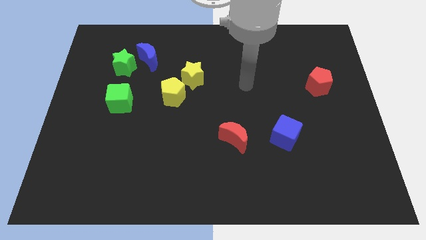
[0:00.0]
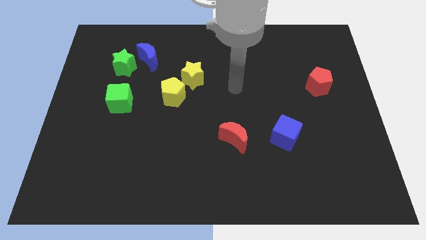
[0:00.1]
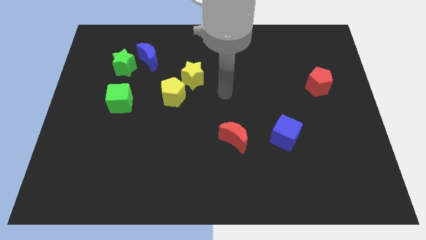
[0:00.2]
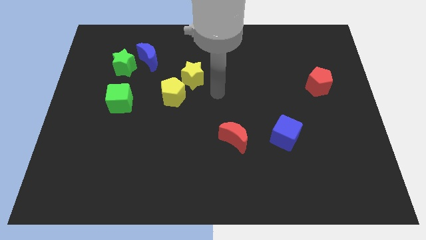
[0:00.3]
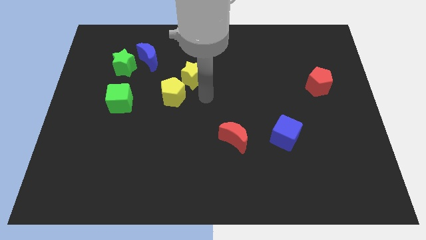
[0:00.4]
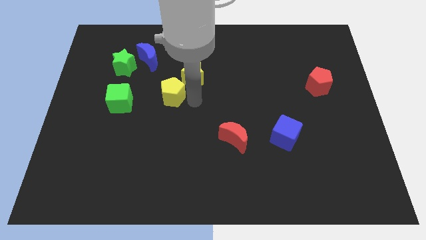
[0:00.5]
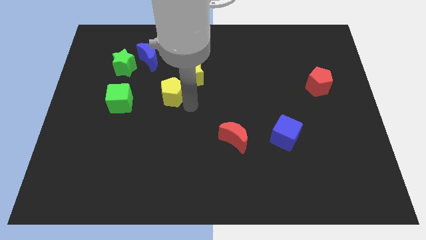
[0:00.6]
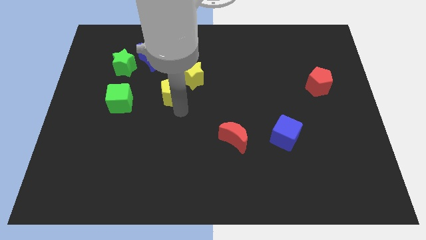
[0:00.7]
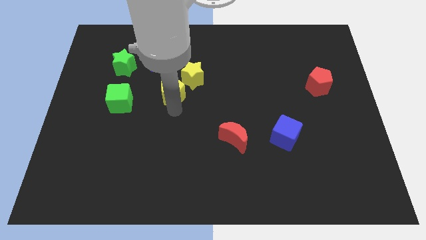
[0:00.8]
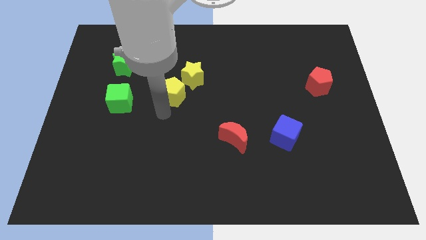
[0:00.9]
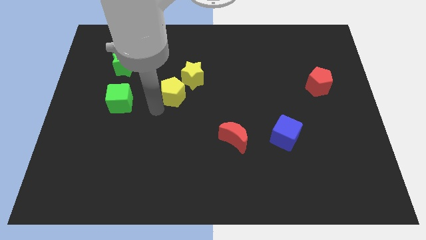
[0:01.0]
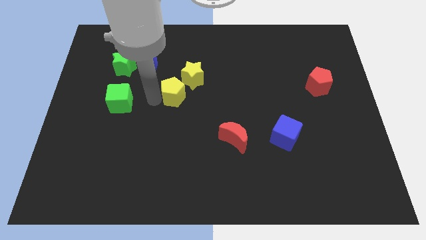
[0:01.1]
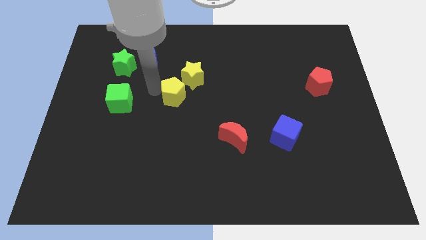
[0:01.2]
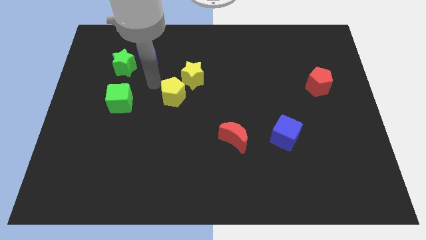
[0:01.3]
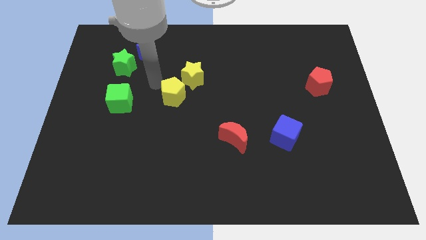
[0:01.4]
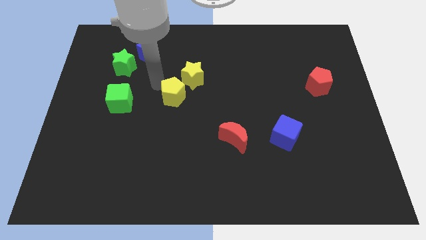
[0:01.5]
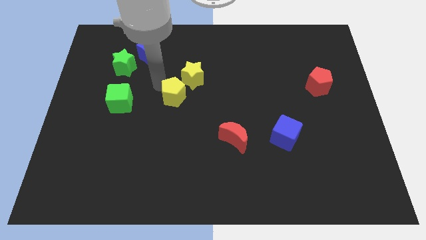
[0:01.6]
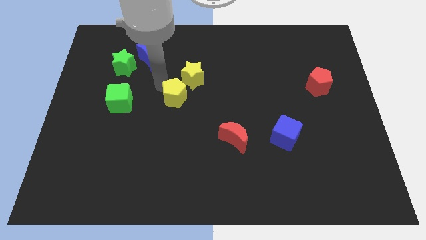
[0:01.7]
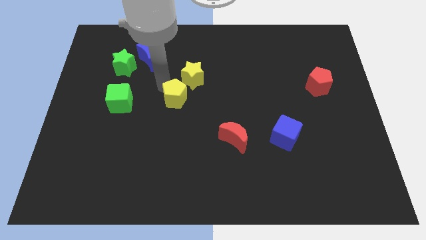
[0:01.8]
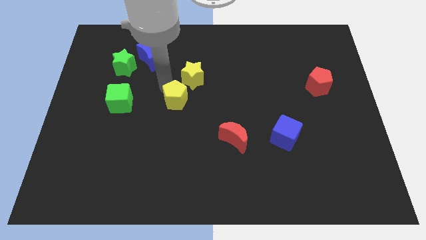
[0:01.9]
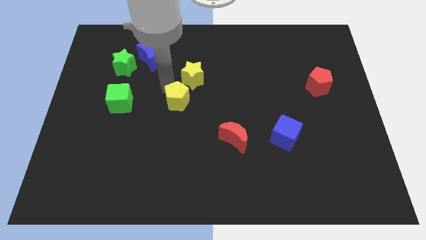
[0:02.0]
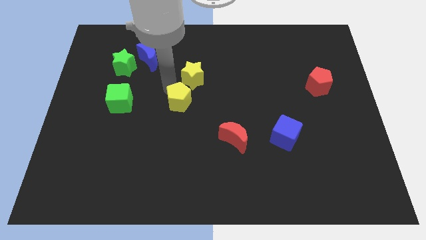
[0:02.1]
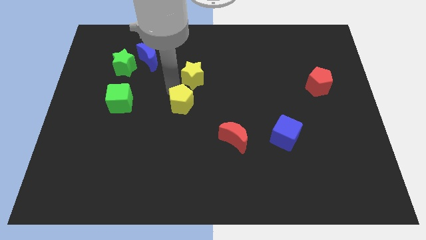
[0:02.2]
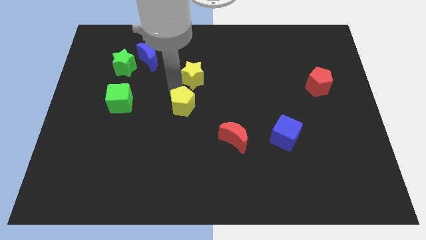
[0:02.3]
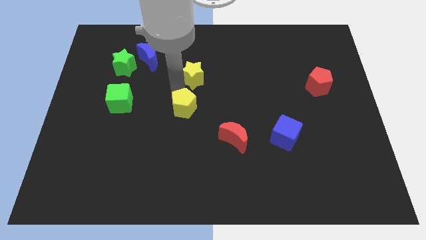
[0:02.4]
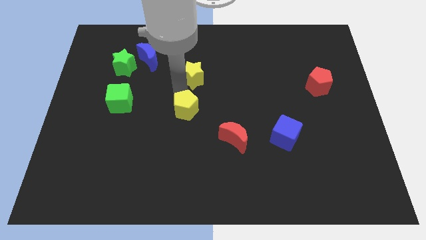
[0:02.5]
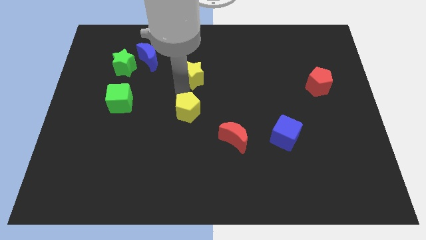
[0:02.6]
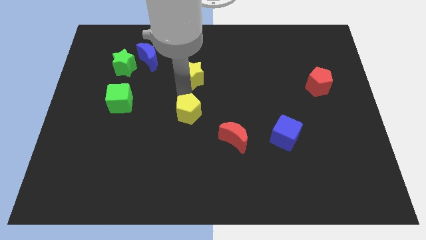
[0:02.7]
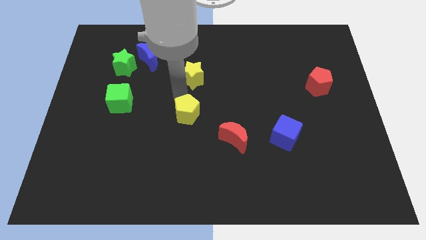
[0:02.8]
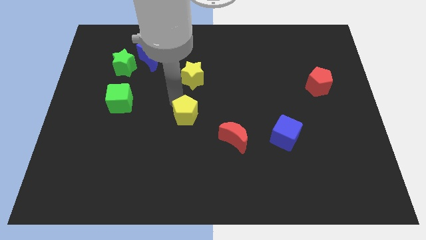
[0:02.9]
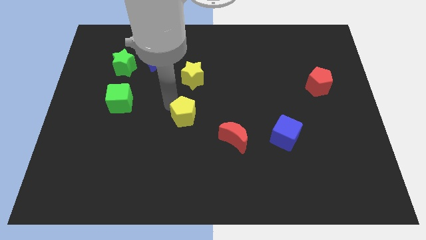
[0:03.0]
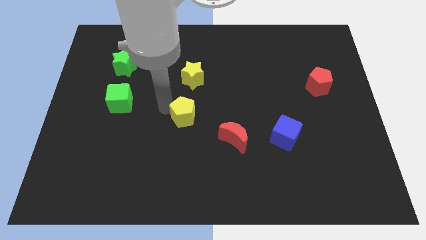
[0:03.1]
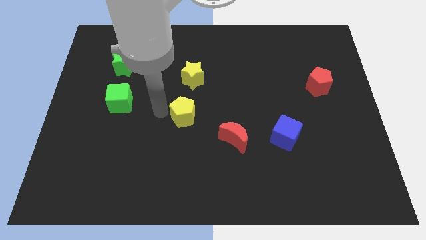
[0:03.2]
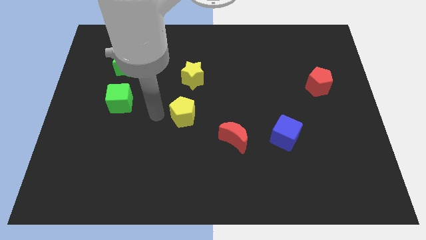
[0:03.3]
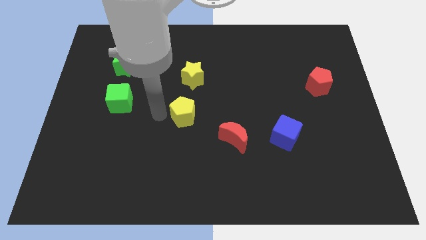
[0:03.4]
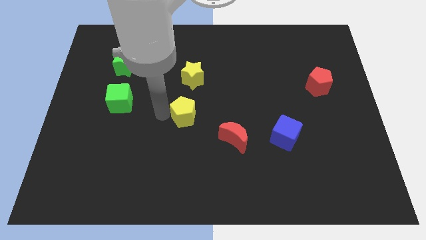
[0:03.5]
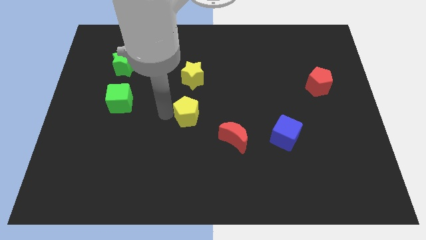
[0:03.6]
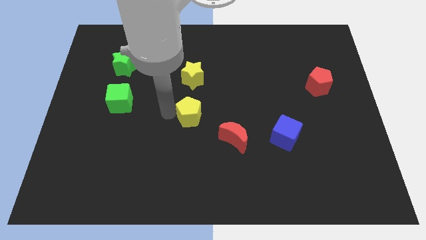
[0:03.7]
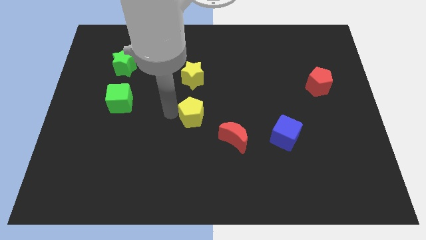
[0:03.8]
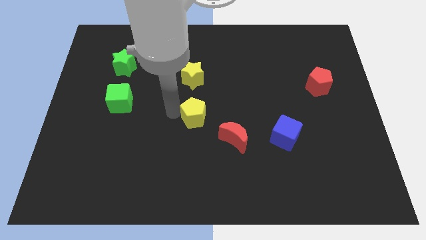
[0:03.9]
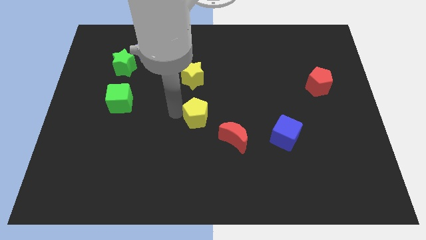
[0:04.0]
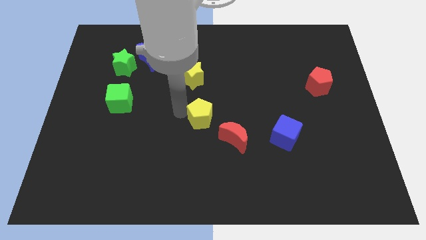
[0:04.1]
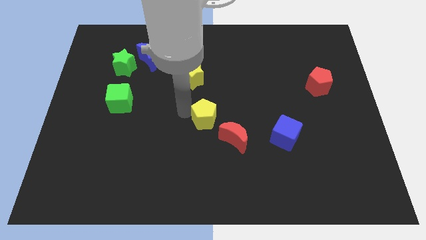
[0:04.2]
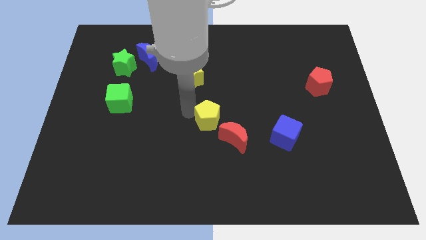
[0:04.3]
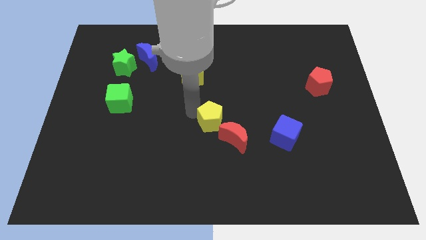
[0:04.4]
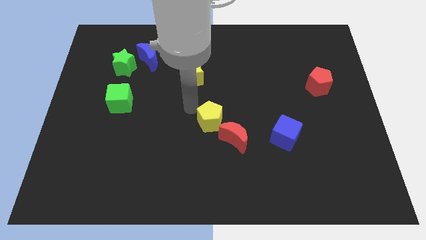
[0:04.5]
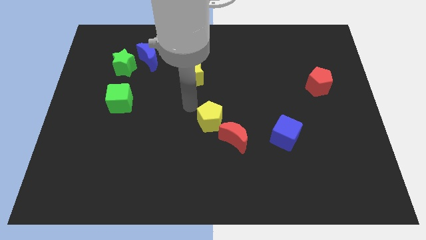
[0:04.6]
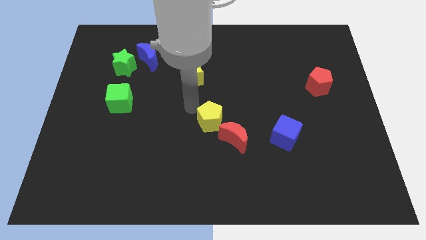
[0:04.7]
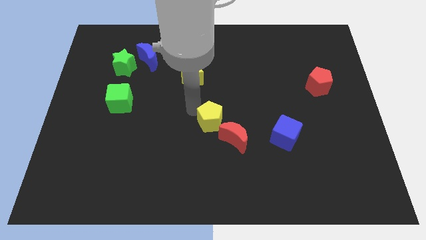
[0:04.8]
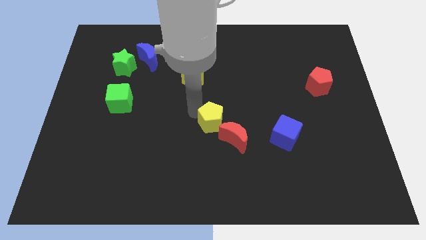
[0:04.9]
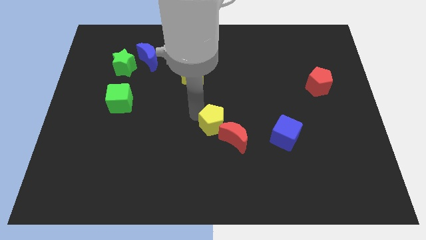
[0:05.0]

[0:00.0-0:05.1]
move the yellow pentagon close to the red moon

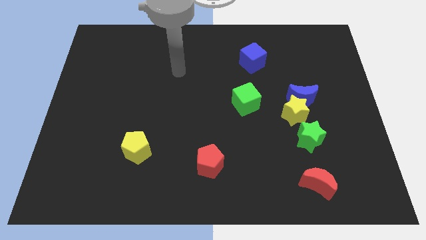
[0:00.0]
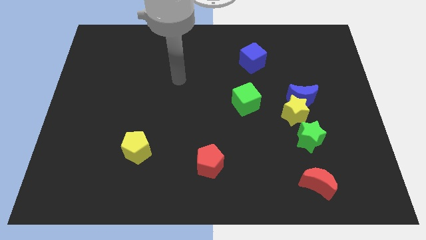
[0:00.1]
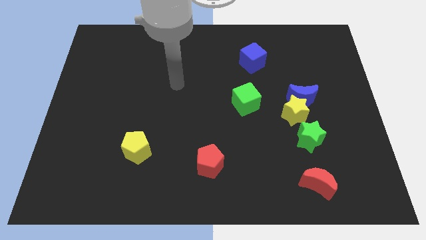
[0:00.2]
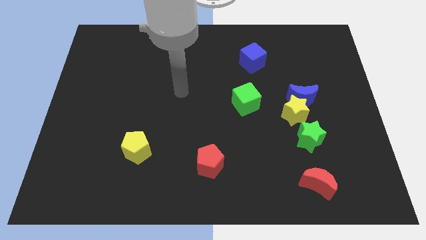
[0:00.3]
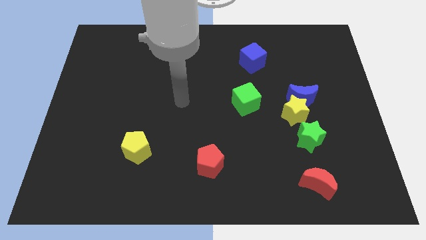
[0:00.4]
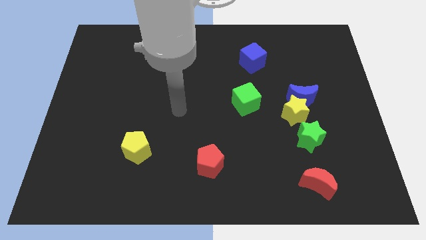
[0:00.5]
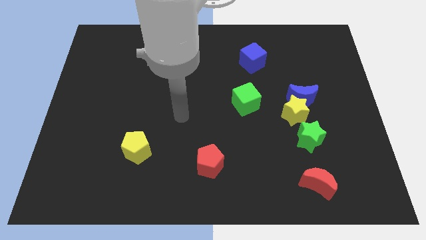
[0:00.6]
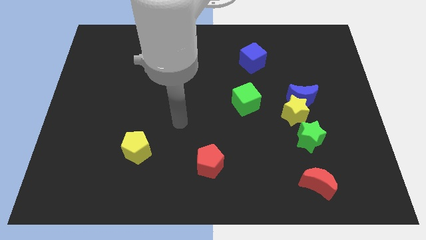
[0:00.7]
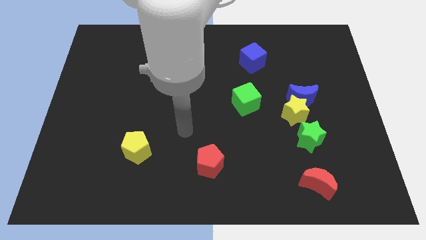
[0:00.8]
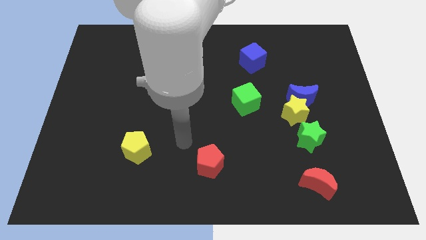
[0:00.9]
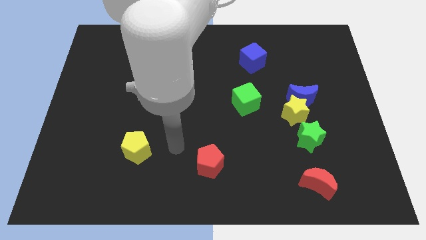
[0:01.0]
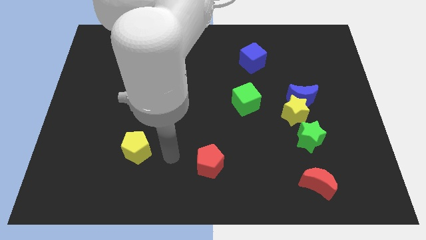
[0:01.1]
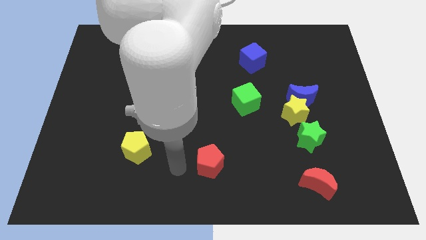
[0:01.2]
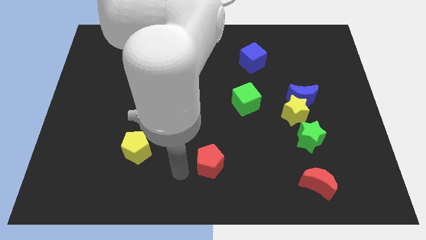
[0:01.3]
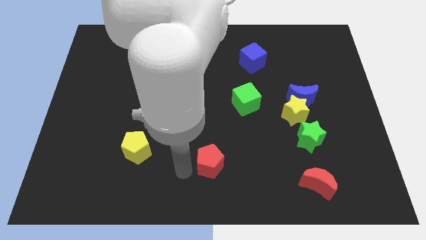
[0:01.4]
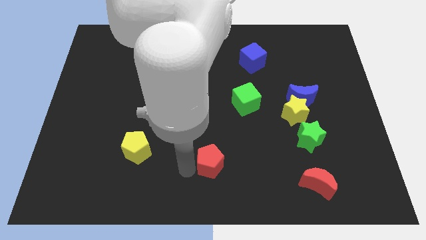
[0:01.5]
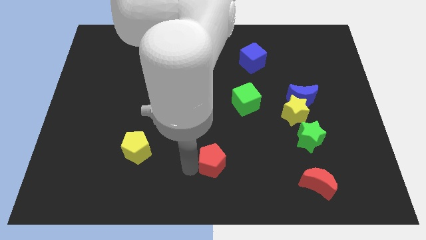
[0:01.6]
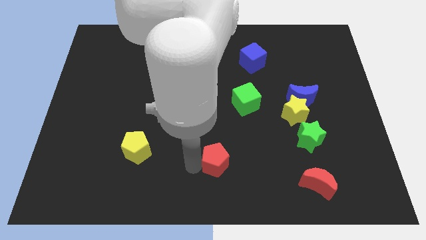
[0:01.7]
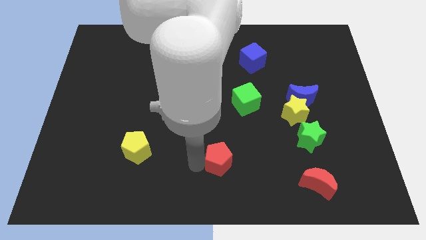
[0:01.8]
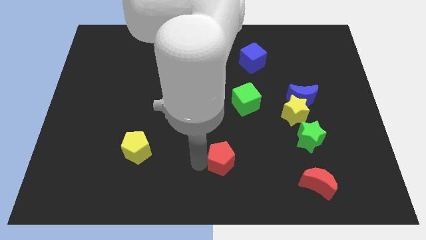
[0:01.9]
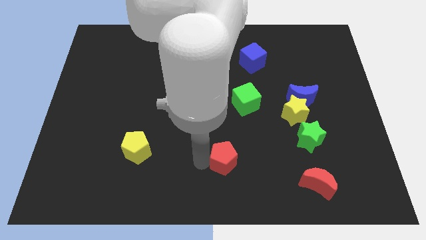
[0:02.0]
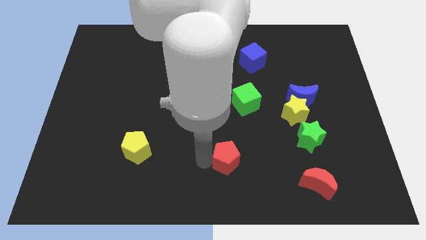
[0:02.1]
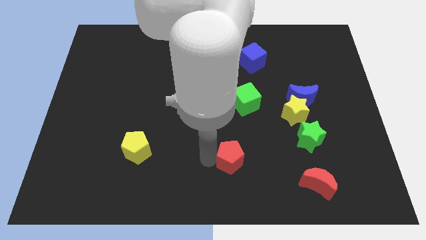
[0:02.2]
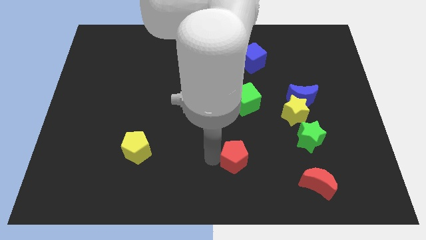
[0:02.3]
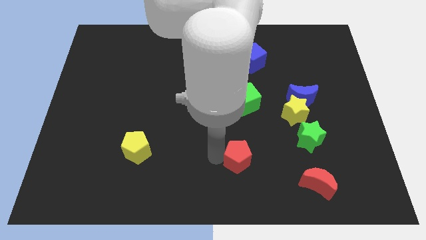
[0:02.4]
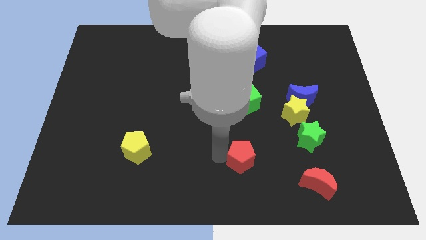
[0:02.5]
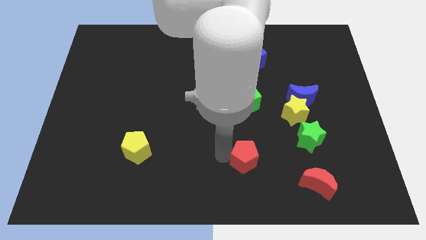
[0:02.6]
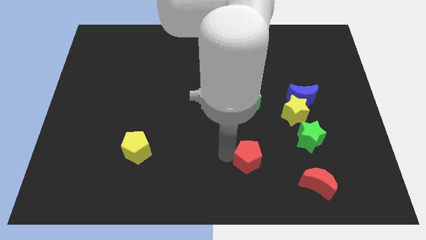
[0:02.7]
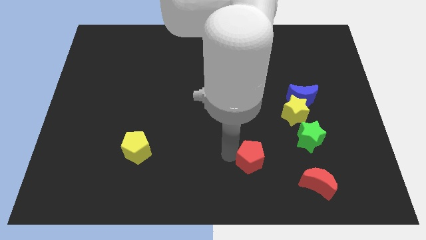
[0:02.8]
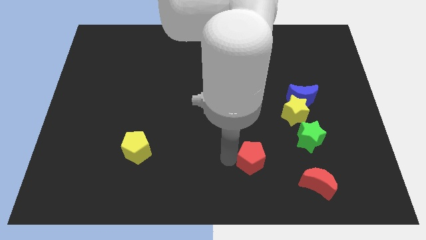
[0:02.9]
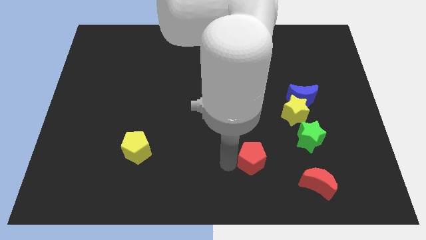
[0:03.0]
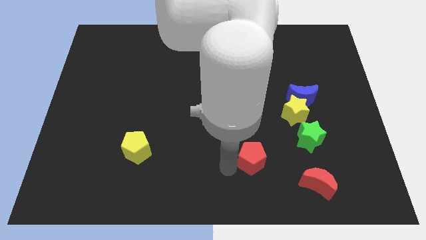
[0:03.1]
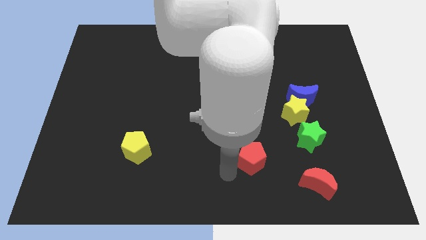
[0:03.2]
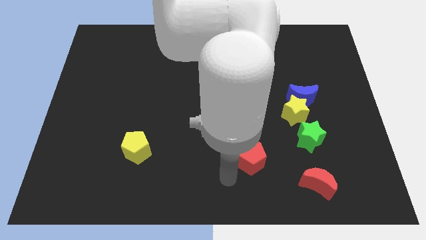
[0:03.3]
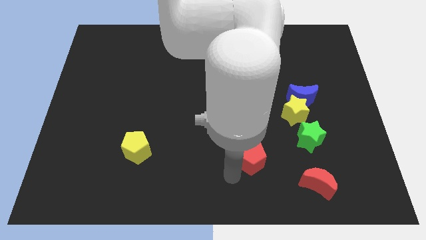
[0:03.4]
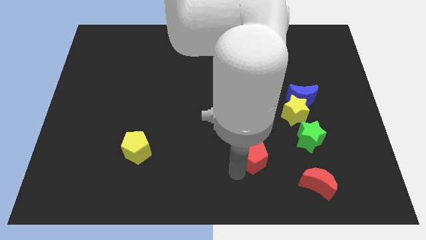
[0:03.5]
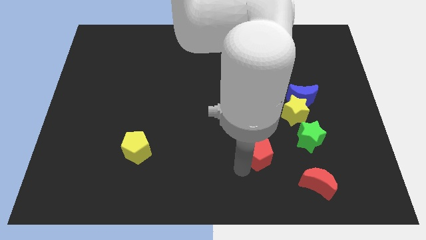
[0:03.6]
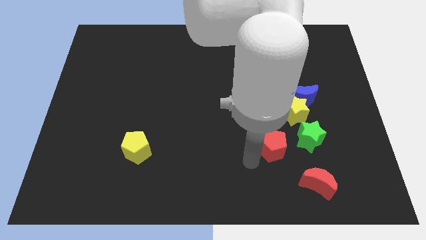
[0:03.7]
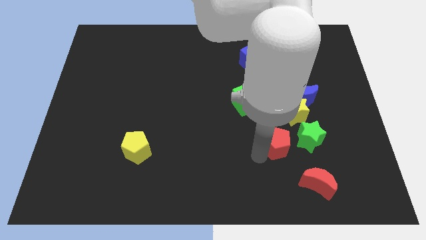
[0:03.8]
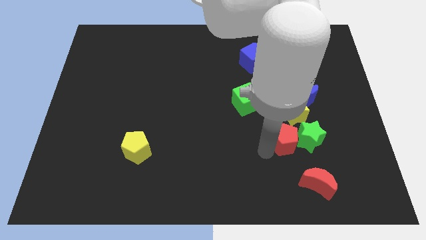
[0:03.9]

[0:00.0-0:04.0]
push the red pentagon towards the green star
